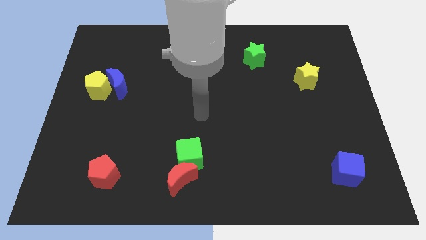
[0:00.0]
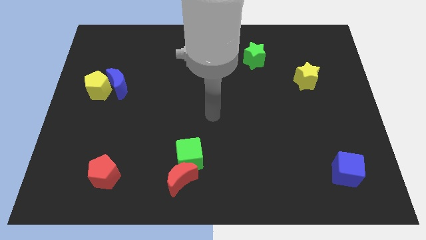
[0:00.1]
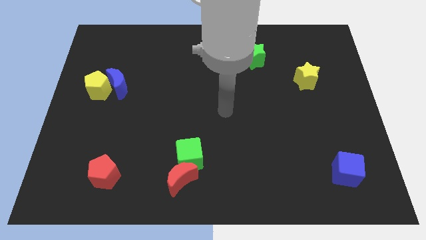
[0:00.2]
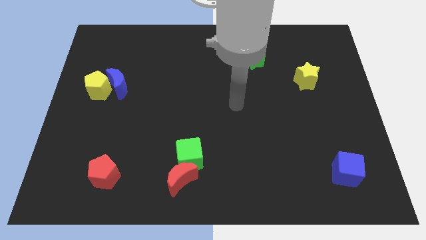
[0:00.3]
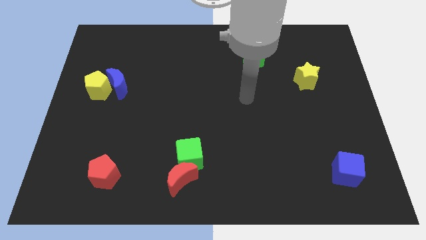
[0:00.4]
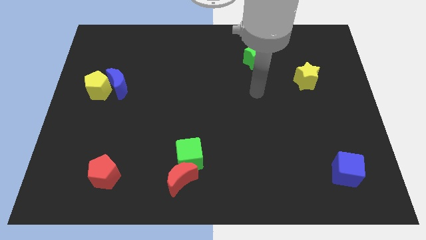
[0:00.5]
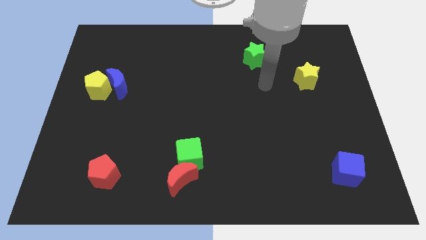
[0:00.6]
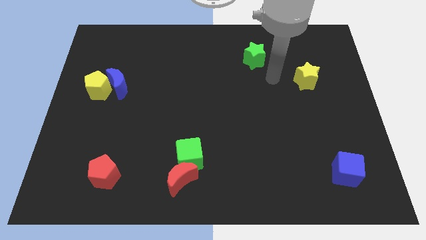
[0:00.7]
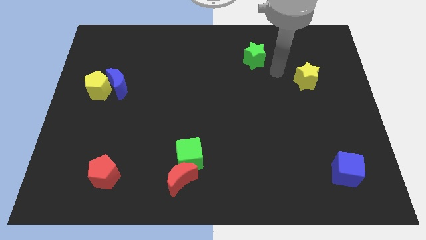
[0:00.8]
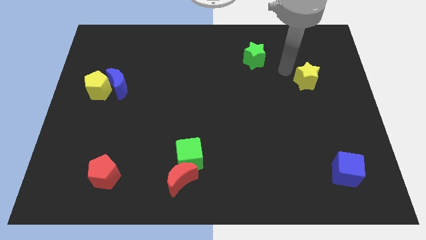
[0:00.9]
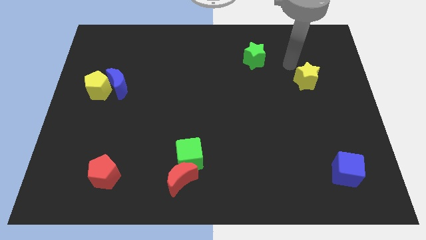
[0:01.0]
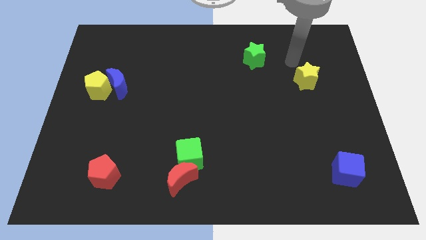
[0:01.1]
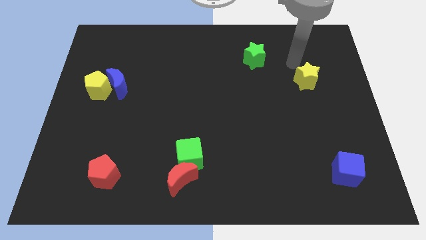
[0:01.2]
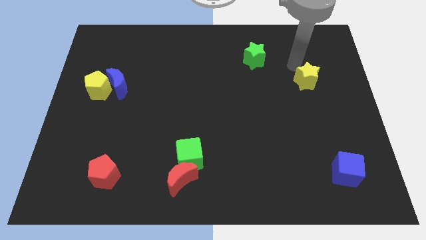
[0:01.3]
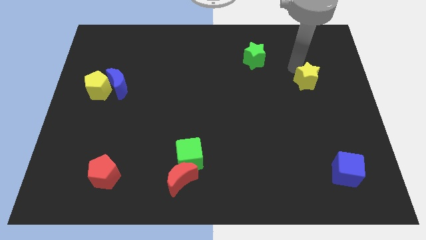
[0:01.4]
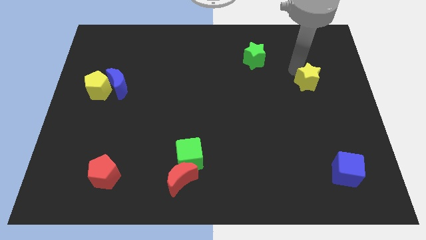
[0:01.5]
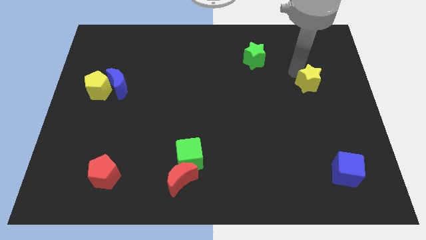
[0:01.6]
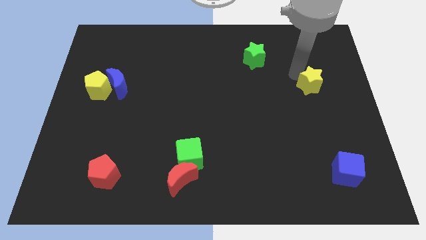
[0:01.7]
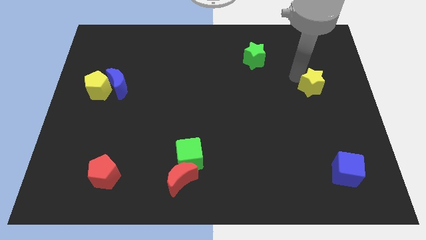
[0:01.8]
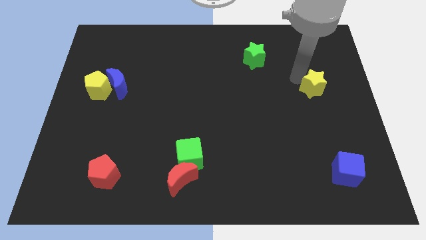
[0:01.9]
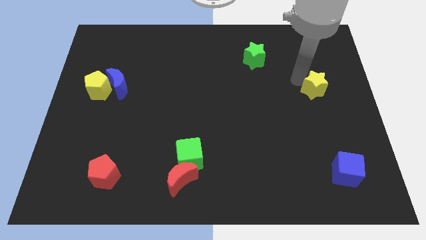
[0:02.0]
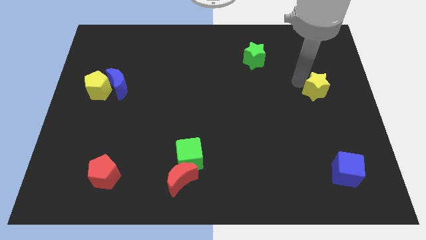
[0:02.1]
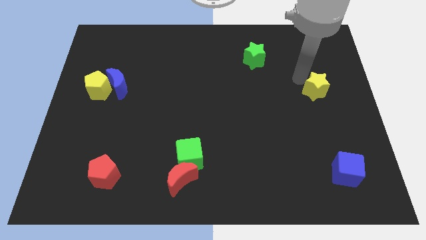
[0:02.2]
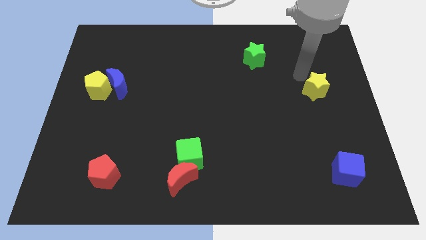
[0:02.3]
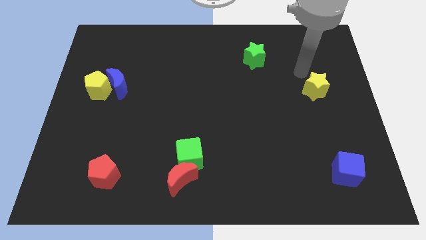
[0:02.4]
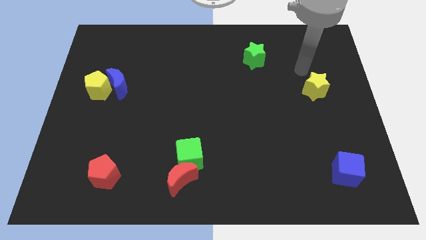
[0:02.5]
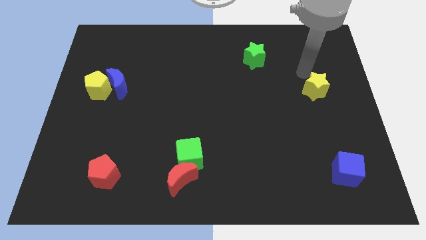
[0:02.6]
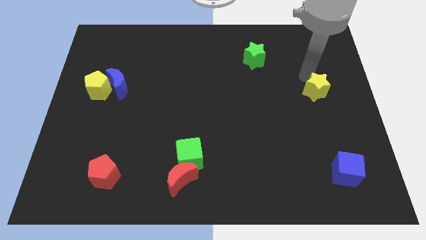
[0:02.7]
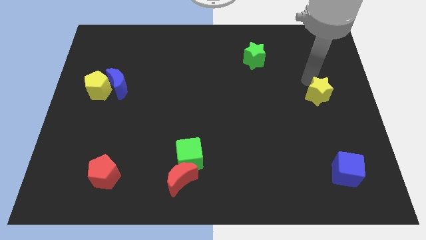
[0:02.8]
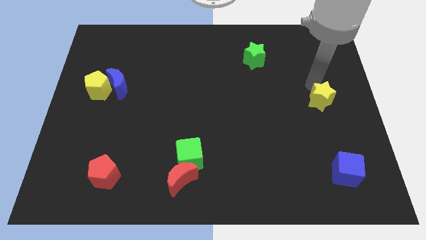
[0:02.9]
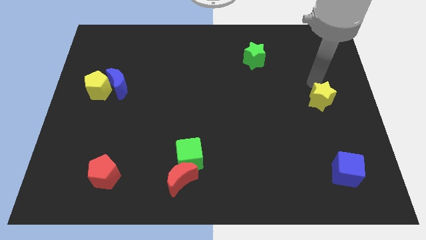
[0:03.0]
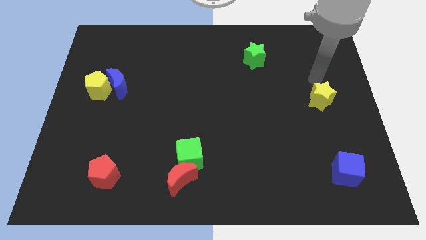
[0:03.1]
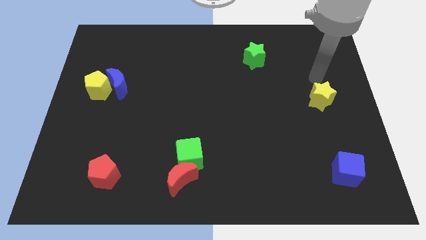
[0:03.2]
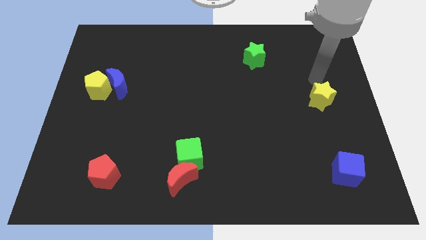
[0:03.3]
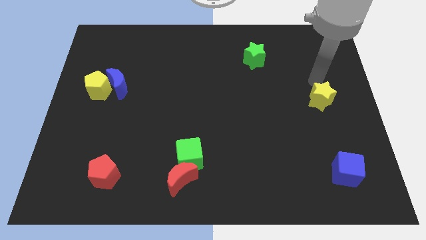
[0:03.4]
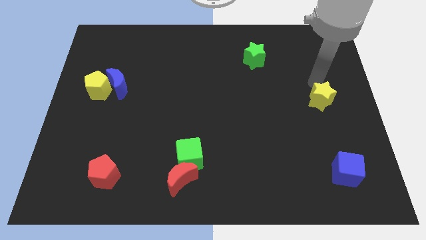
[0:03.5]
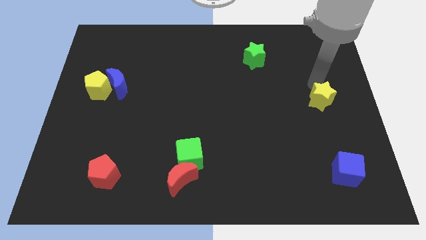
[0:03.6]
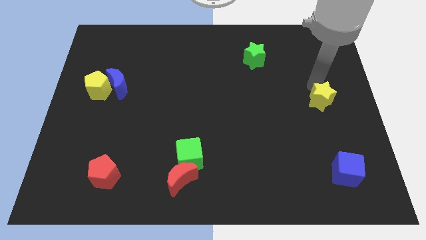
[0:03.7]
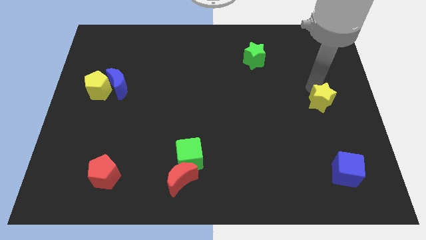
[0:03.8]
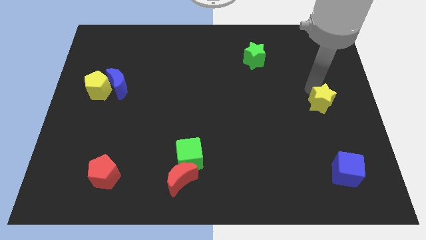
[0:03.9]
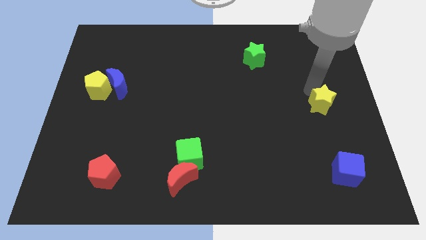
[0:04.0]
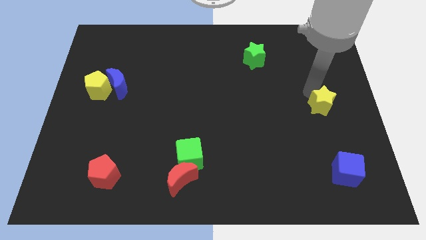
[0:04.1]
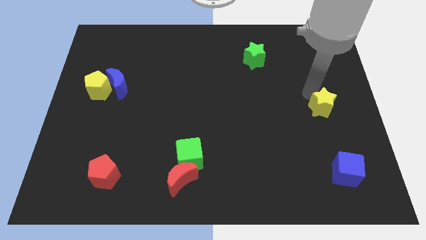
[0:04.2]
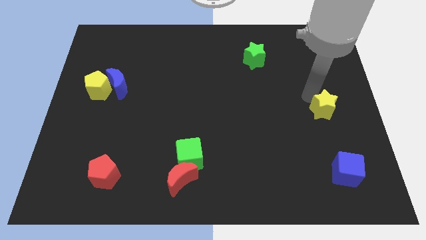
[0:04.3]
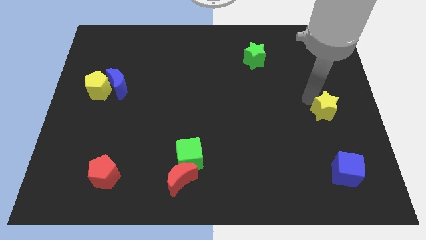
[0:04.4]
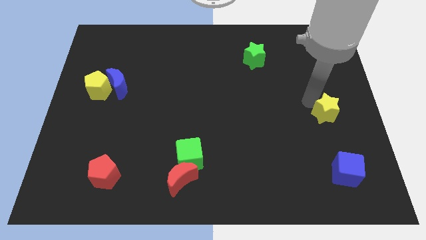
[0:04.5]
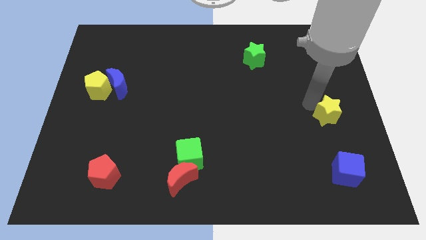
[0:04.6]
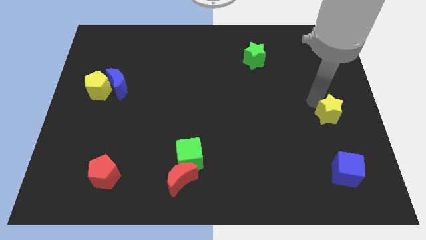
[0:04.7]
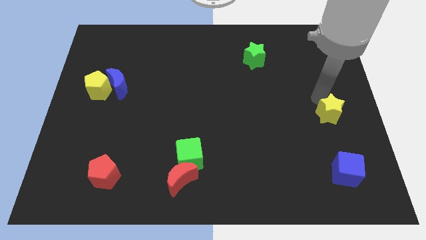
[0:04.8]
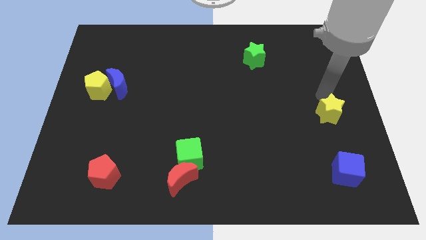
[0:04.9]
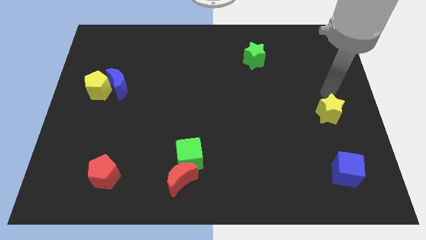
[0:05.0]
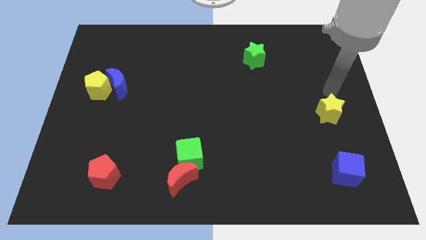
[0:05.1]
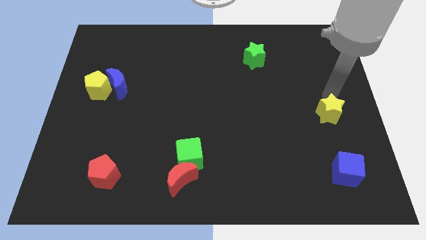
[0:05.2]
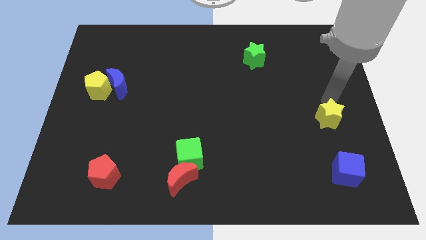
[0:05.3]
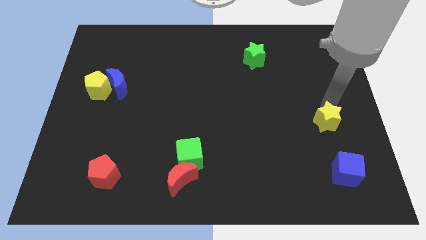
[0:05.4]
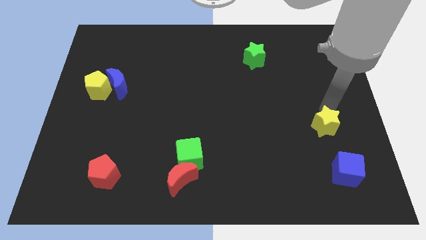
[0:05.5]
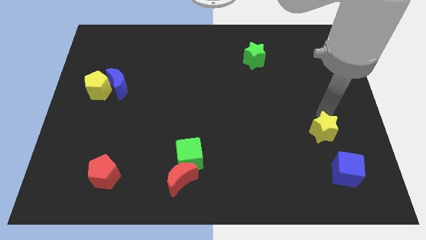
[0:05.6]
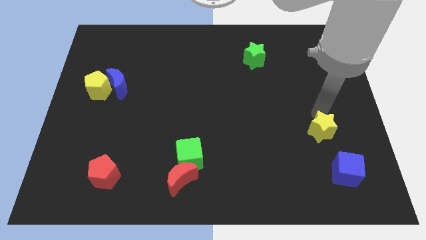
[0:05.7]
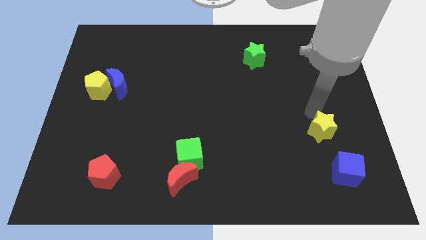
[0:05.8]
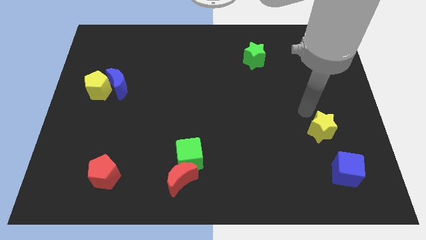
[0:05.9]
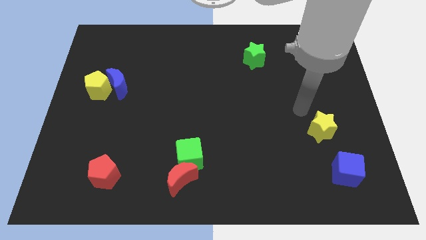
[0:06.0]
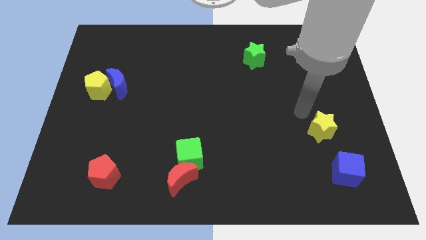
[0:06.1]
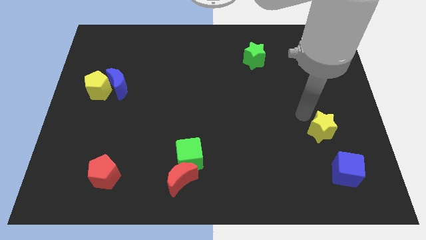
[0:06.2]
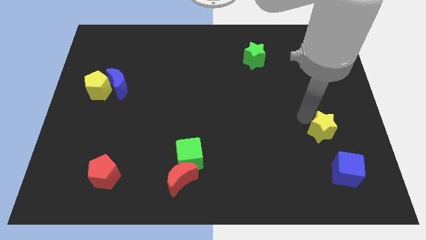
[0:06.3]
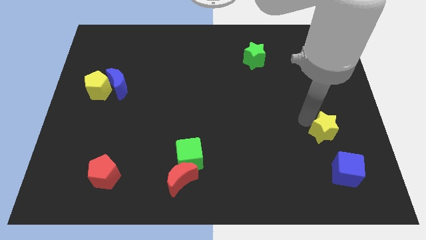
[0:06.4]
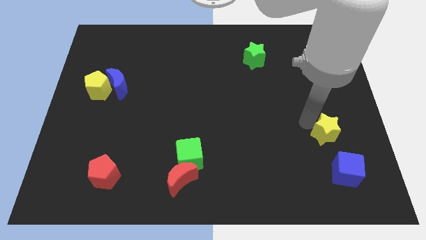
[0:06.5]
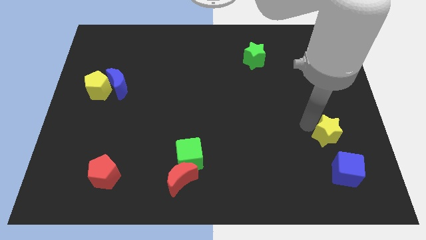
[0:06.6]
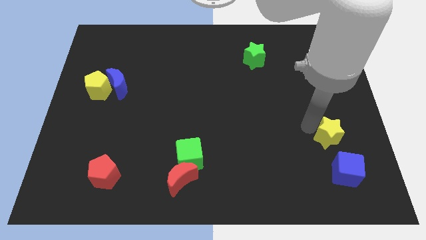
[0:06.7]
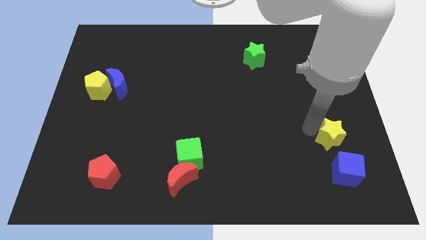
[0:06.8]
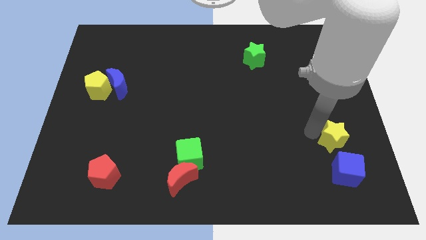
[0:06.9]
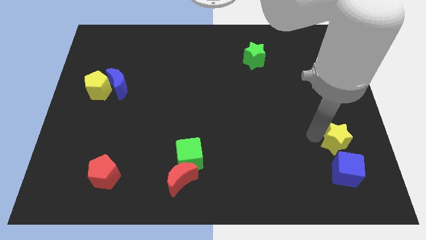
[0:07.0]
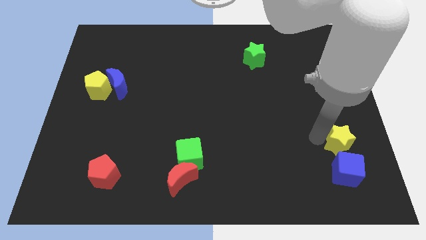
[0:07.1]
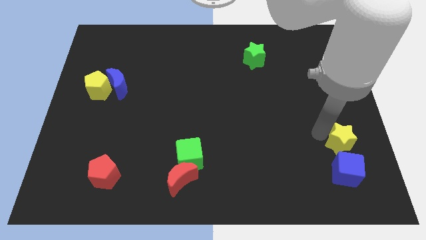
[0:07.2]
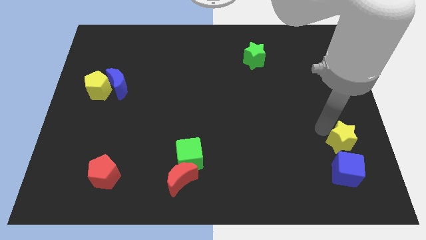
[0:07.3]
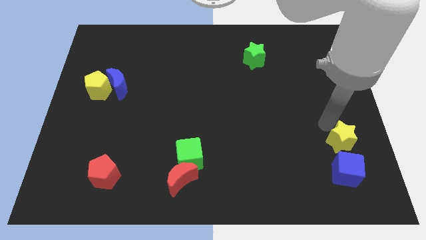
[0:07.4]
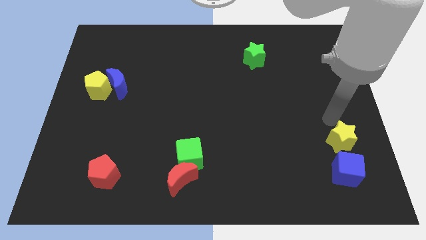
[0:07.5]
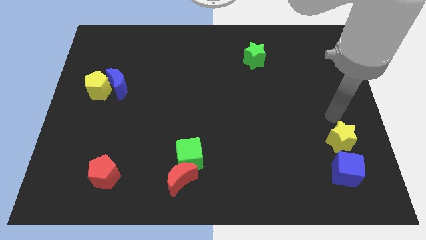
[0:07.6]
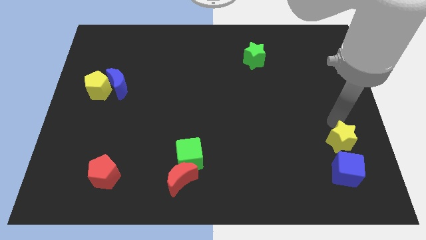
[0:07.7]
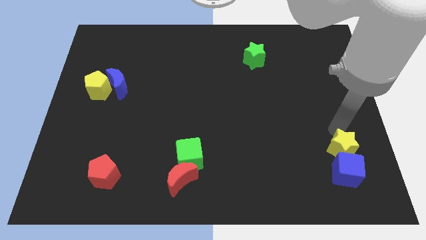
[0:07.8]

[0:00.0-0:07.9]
move the yellow star to the blue cube
